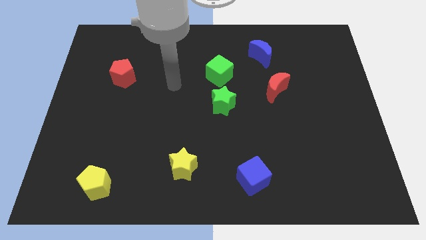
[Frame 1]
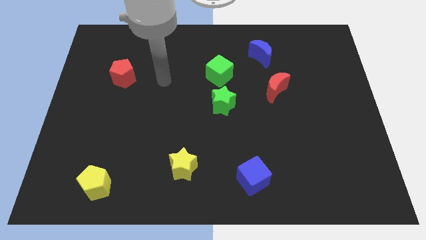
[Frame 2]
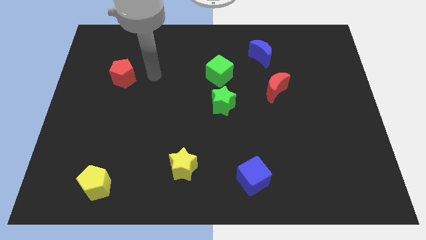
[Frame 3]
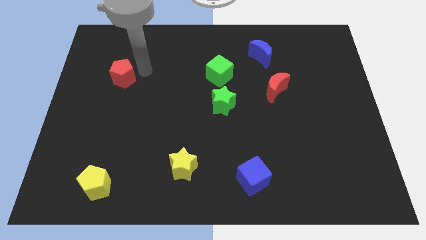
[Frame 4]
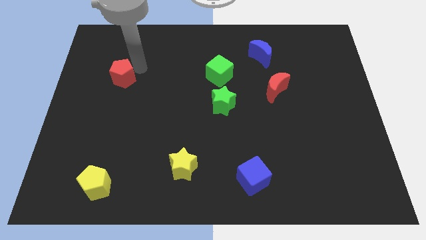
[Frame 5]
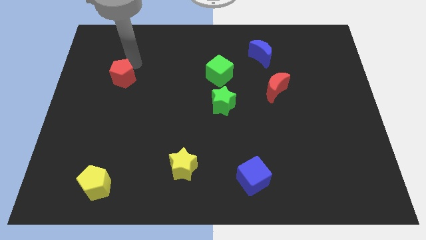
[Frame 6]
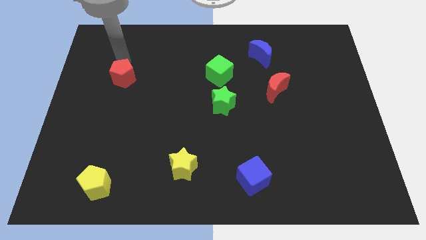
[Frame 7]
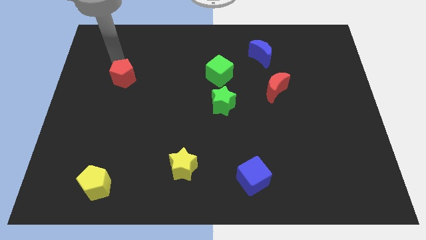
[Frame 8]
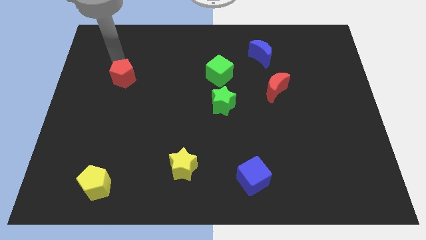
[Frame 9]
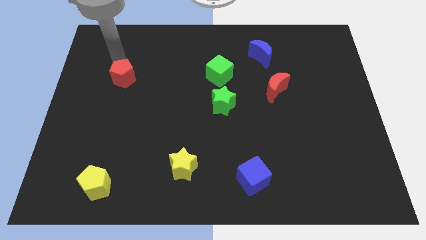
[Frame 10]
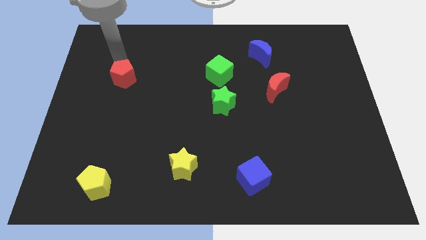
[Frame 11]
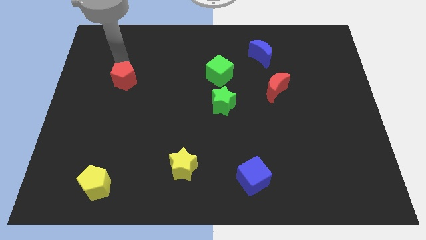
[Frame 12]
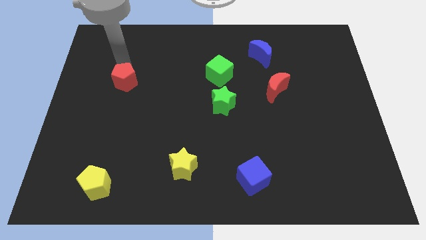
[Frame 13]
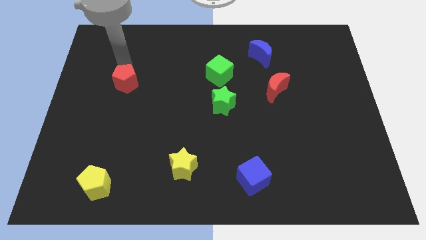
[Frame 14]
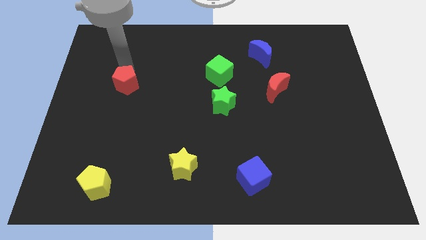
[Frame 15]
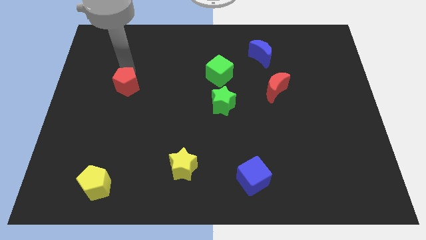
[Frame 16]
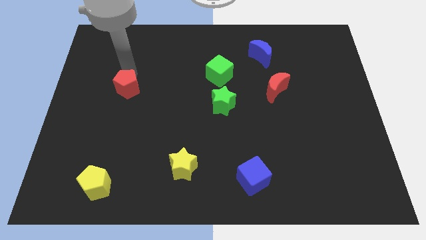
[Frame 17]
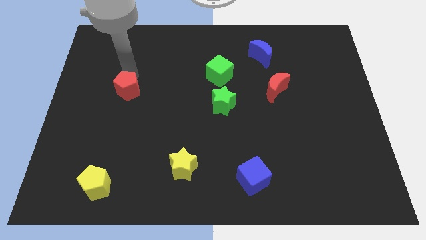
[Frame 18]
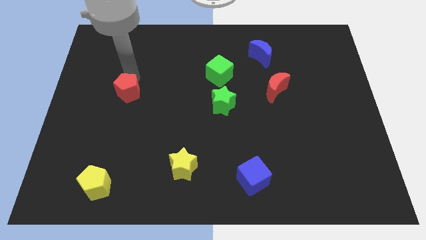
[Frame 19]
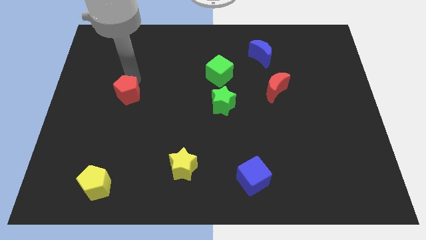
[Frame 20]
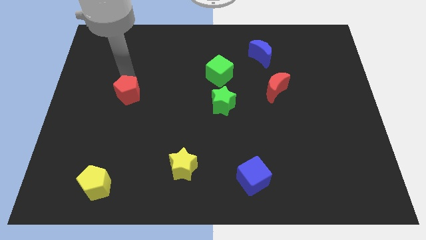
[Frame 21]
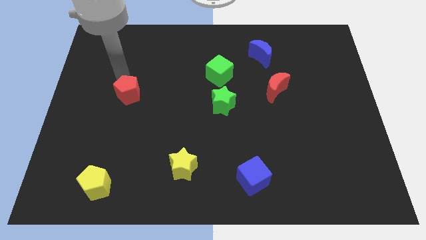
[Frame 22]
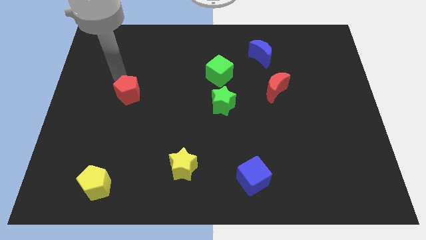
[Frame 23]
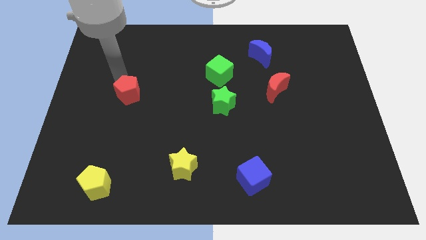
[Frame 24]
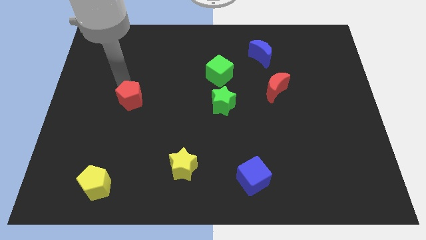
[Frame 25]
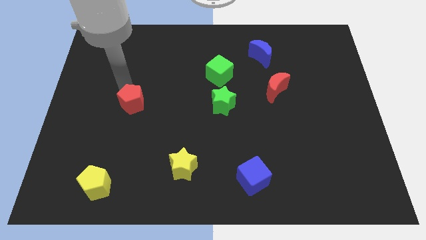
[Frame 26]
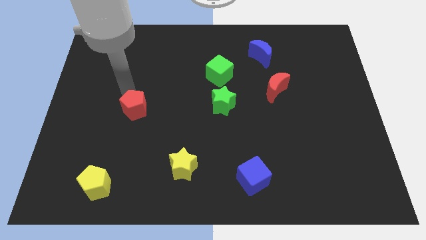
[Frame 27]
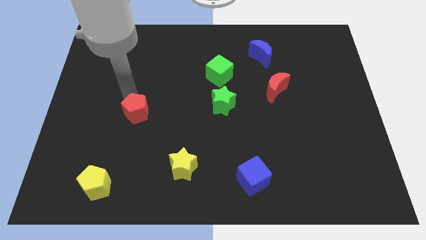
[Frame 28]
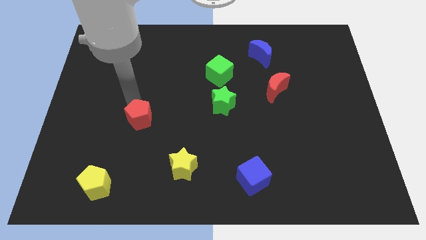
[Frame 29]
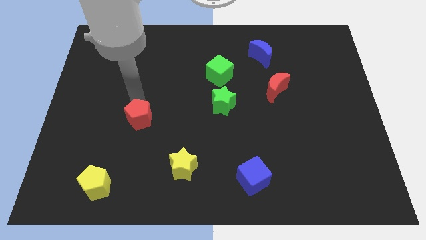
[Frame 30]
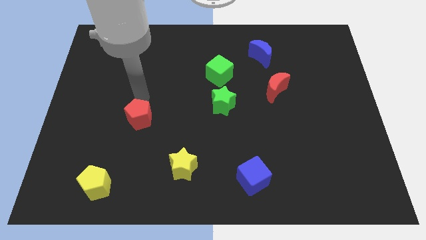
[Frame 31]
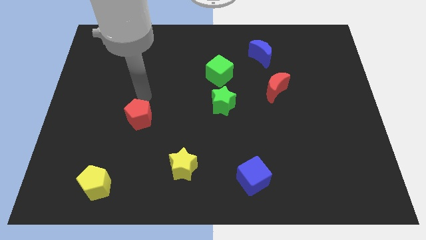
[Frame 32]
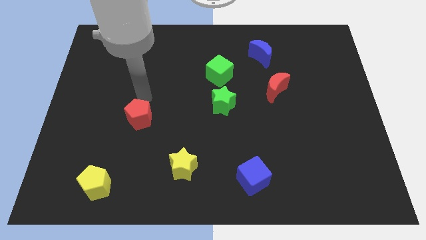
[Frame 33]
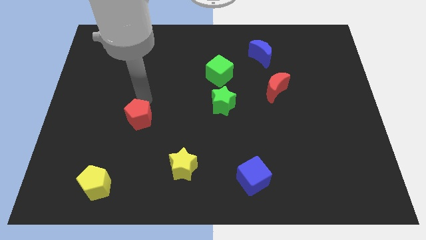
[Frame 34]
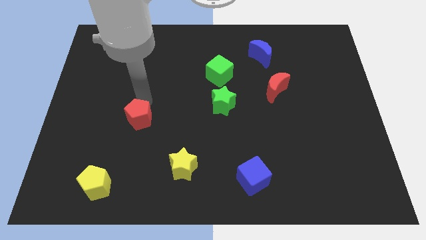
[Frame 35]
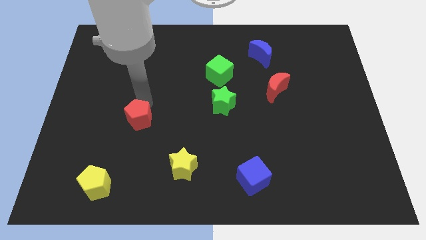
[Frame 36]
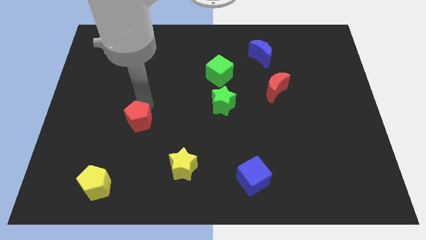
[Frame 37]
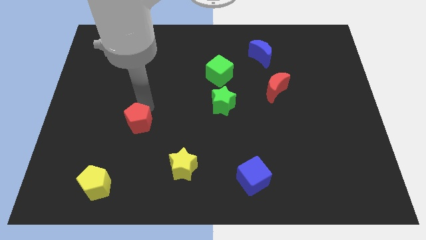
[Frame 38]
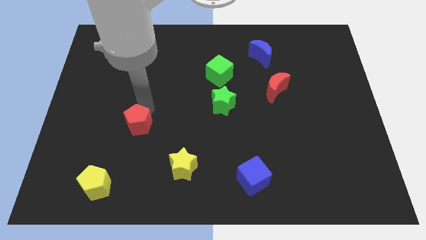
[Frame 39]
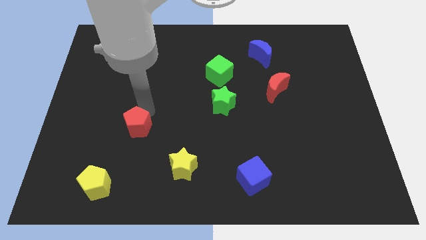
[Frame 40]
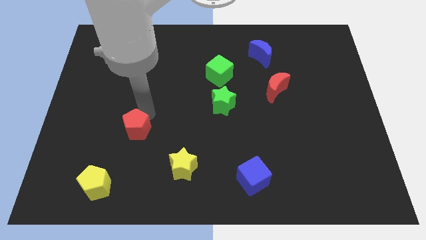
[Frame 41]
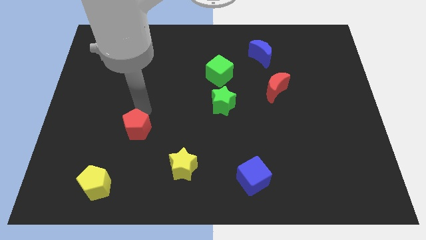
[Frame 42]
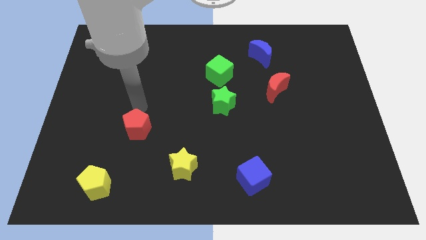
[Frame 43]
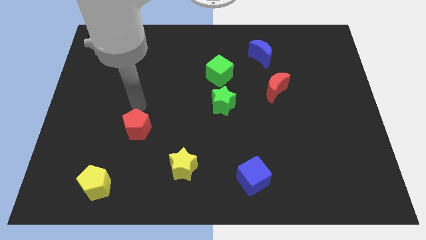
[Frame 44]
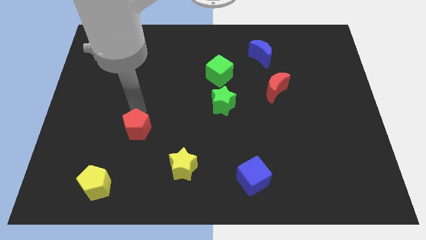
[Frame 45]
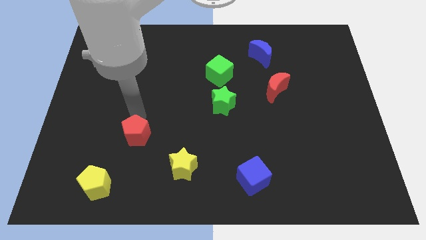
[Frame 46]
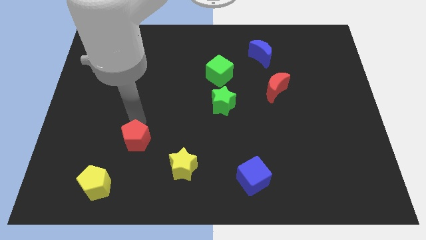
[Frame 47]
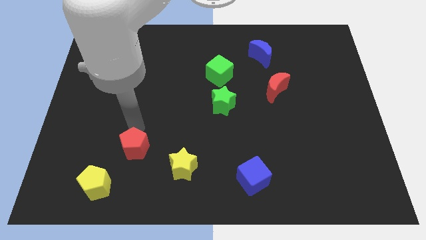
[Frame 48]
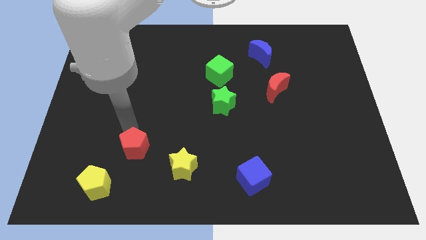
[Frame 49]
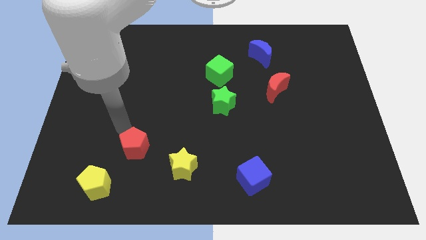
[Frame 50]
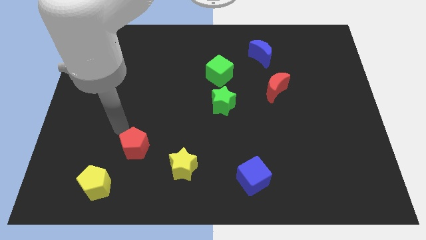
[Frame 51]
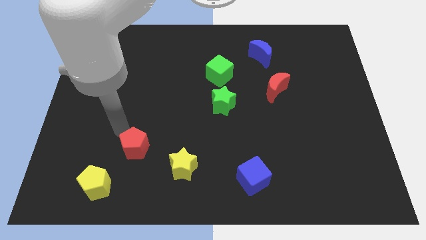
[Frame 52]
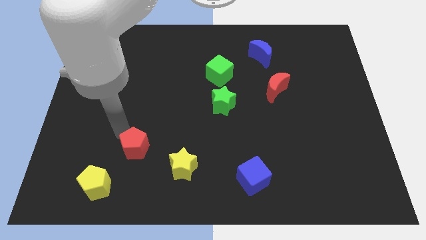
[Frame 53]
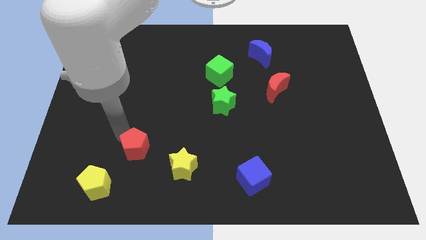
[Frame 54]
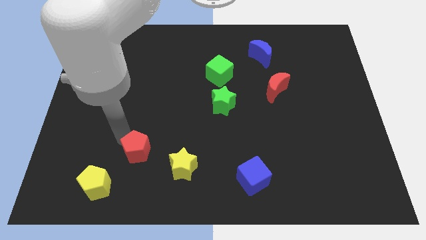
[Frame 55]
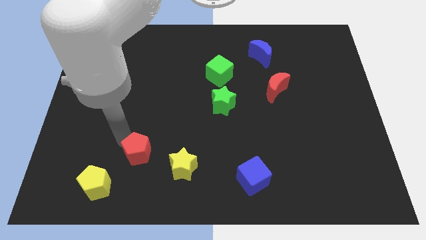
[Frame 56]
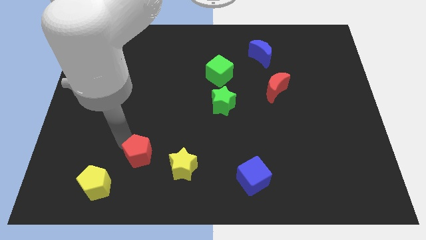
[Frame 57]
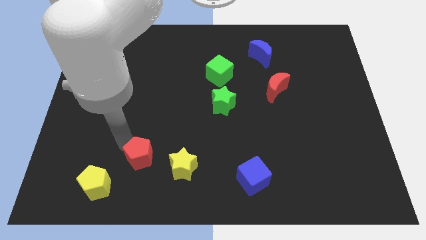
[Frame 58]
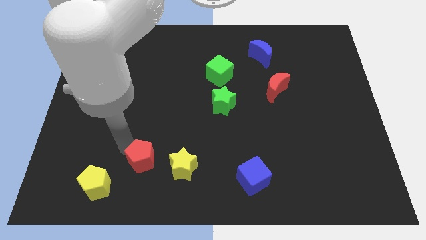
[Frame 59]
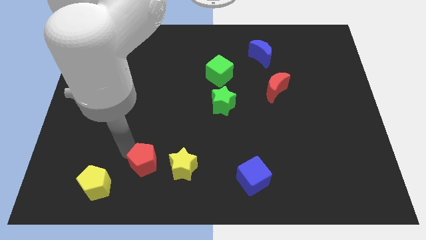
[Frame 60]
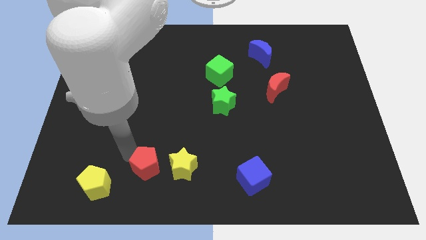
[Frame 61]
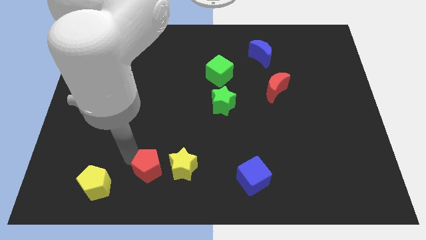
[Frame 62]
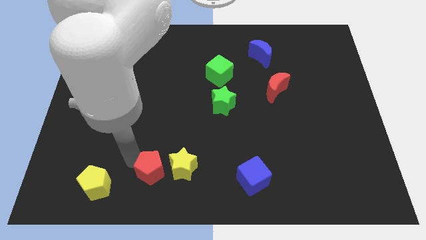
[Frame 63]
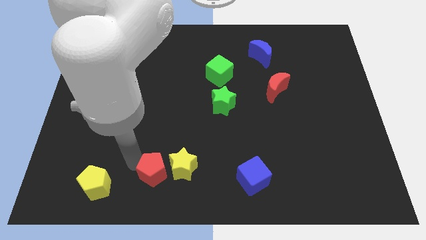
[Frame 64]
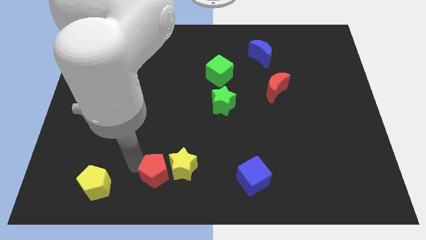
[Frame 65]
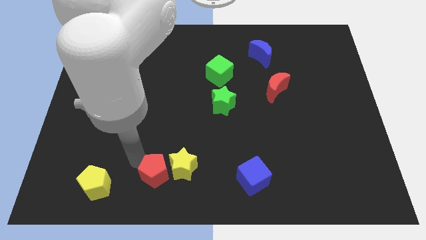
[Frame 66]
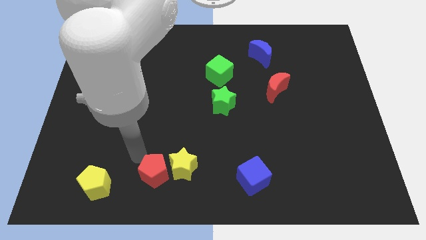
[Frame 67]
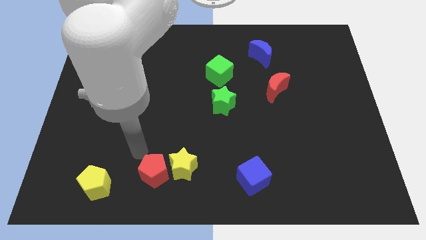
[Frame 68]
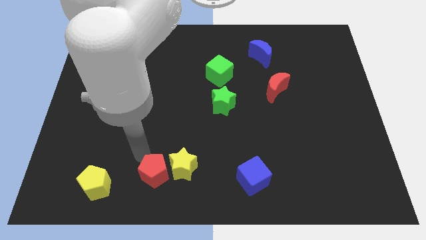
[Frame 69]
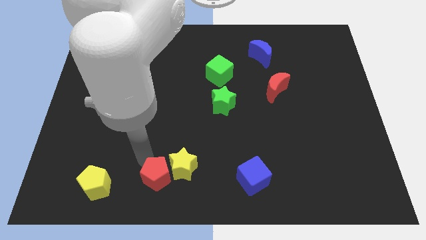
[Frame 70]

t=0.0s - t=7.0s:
push the red pentagon to the bottom side
